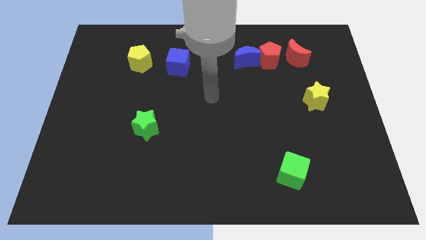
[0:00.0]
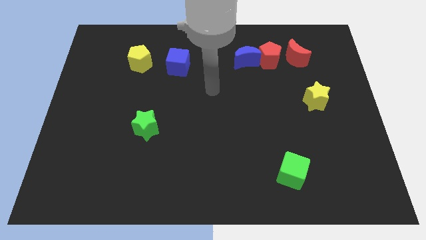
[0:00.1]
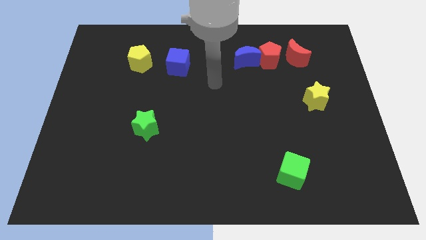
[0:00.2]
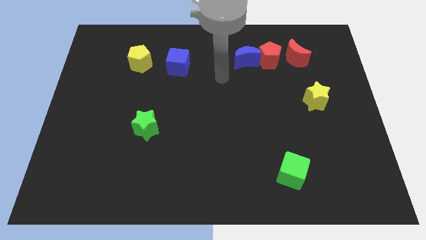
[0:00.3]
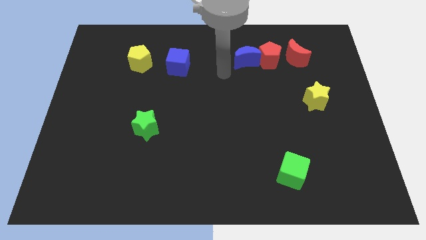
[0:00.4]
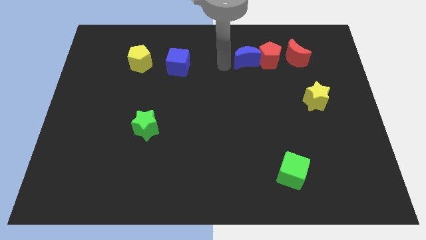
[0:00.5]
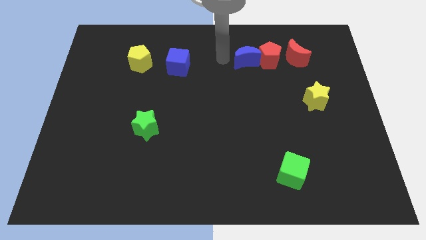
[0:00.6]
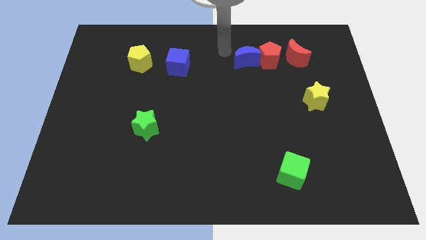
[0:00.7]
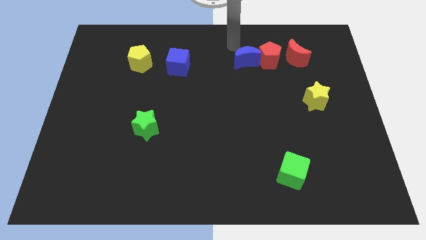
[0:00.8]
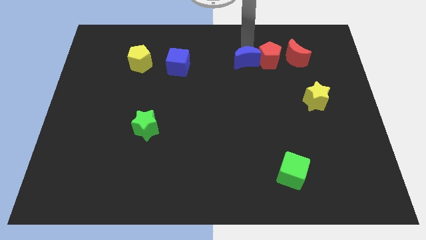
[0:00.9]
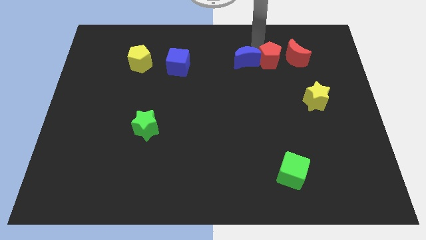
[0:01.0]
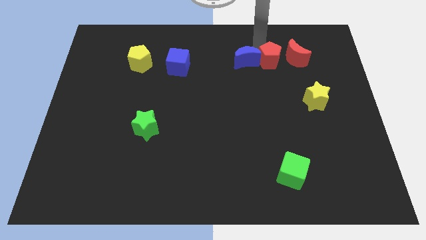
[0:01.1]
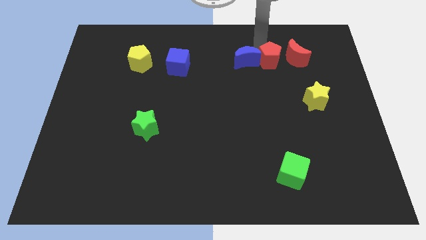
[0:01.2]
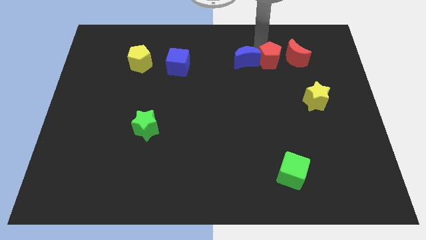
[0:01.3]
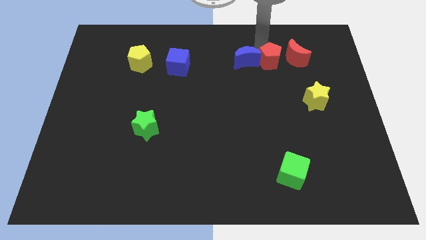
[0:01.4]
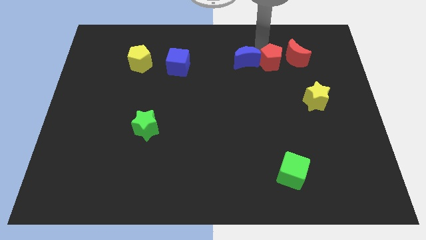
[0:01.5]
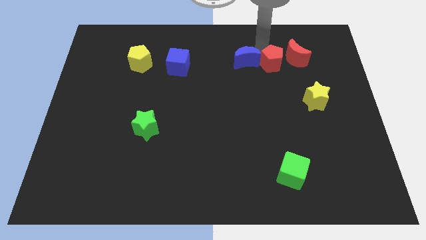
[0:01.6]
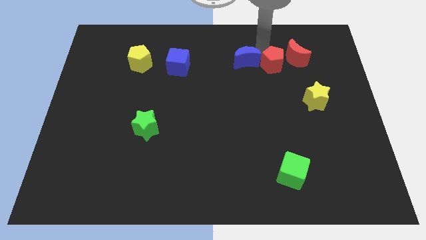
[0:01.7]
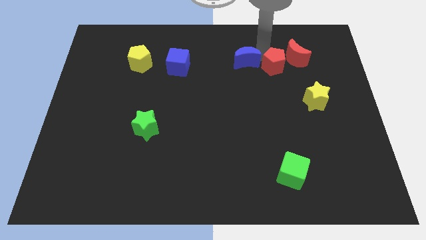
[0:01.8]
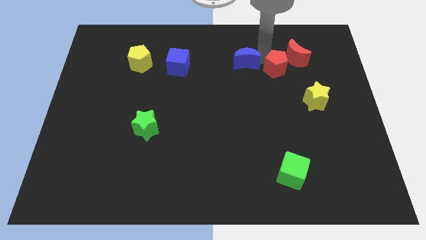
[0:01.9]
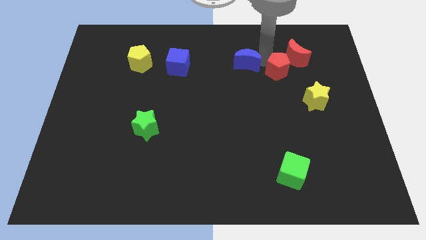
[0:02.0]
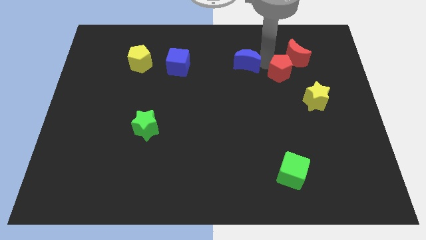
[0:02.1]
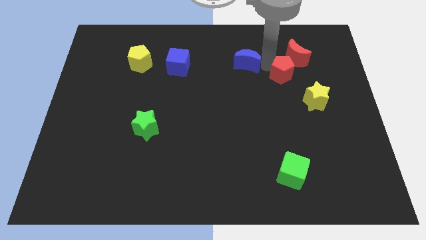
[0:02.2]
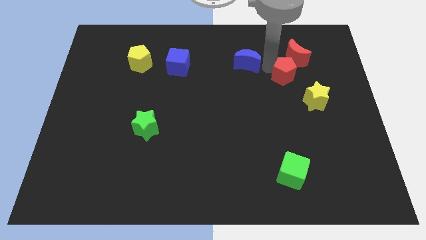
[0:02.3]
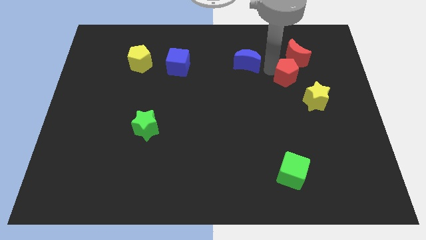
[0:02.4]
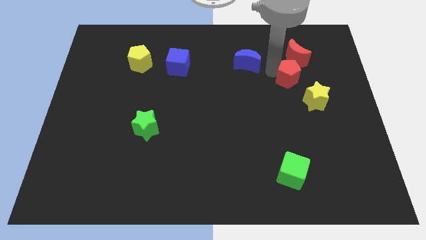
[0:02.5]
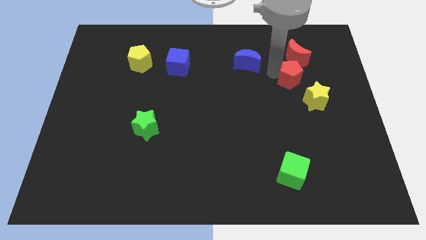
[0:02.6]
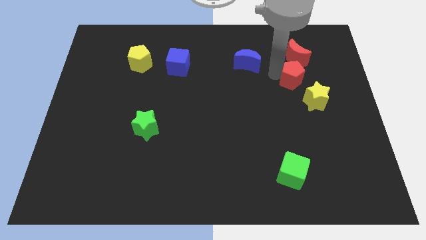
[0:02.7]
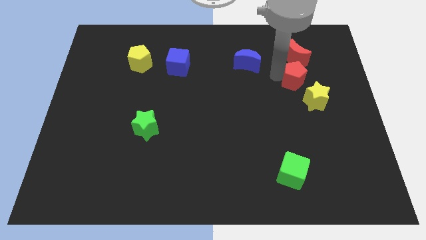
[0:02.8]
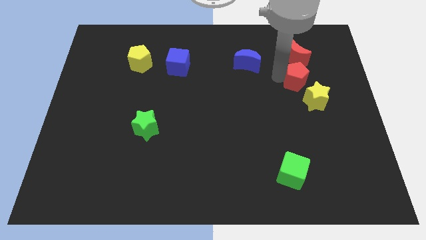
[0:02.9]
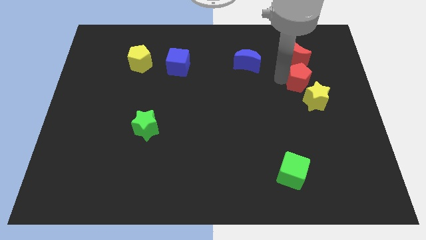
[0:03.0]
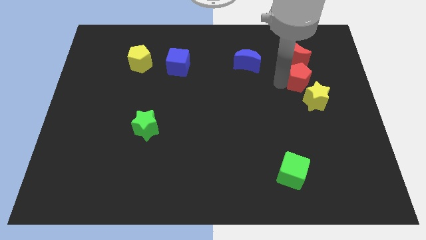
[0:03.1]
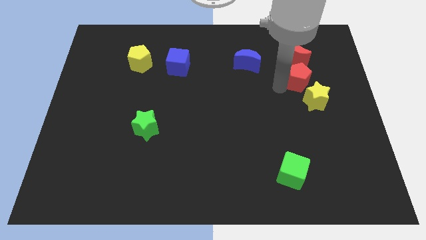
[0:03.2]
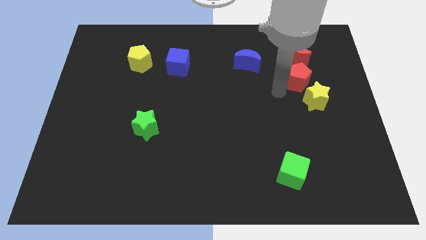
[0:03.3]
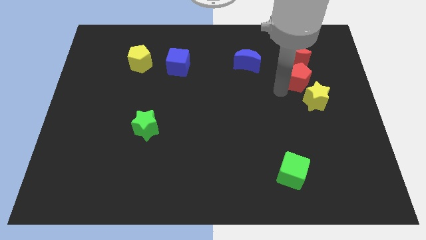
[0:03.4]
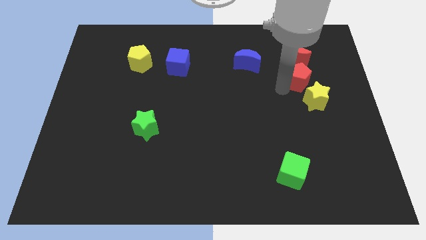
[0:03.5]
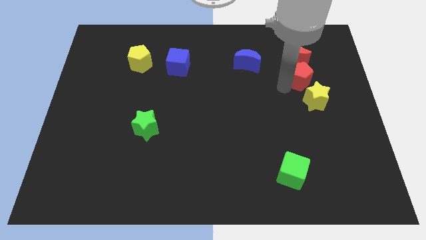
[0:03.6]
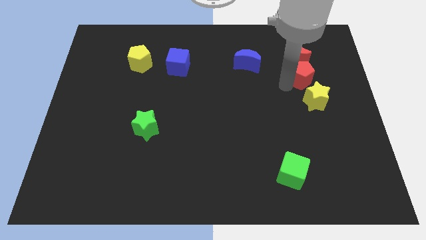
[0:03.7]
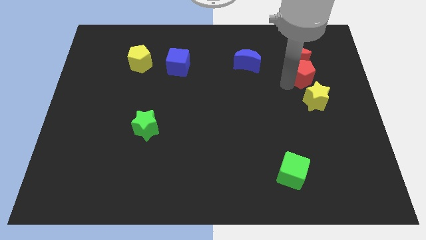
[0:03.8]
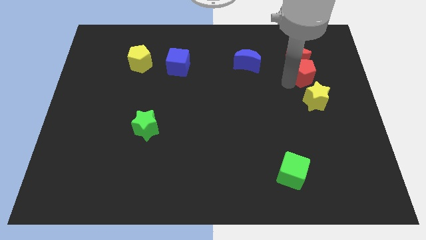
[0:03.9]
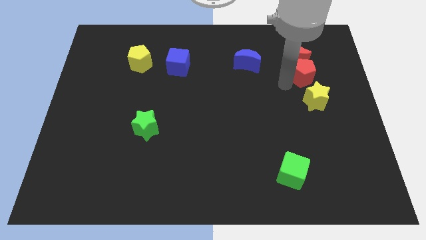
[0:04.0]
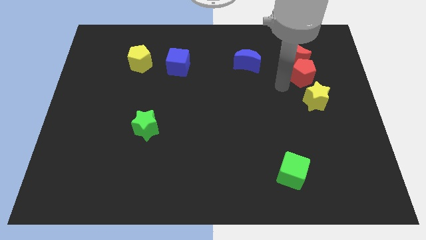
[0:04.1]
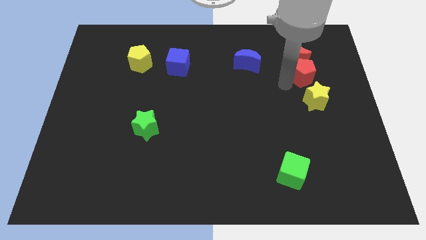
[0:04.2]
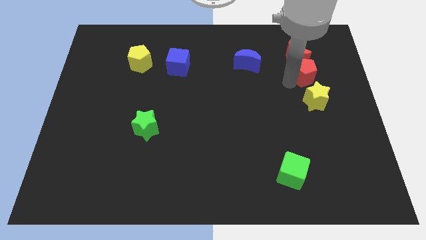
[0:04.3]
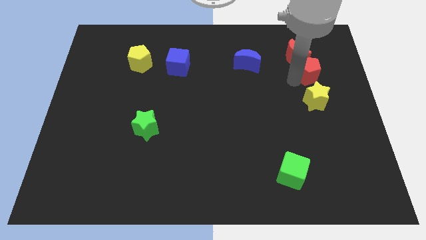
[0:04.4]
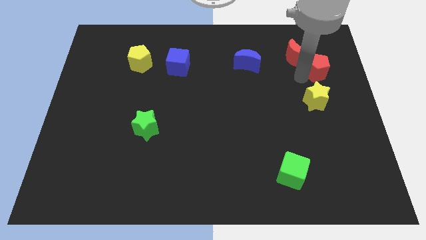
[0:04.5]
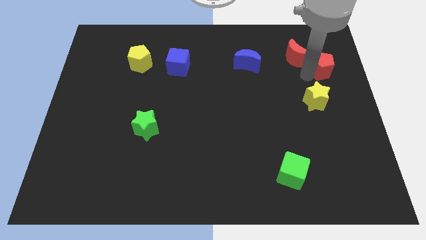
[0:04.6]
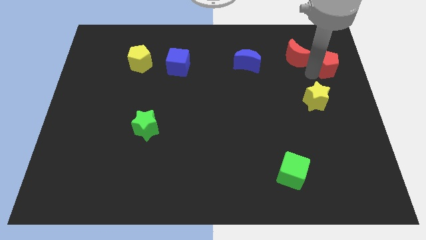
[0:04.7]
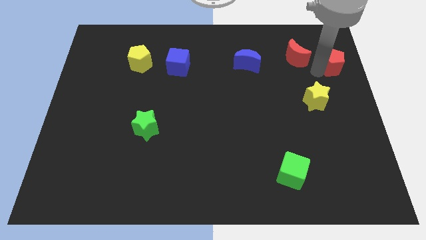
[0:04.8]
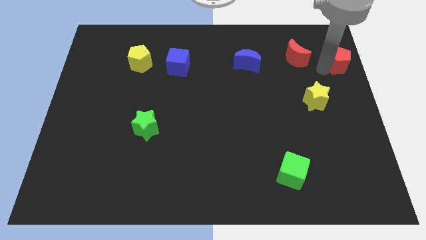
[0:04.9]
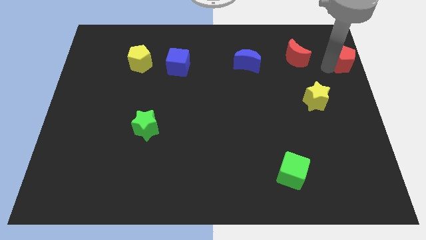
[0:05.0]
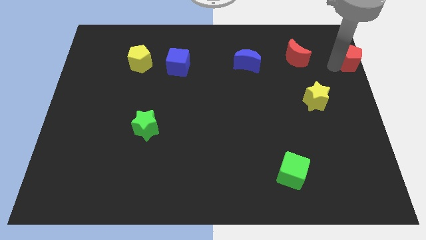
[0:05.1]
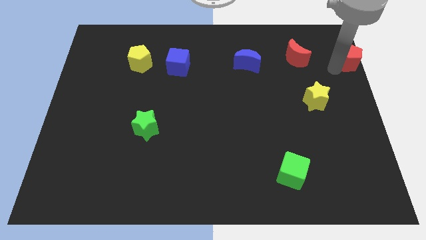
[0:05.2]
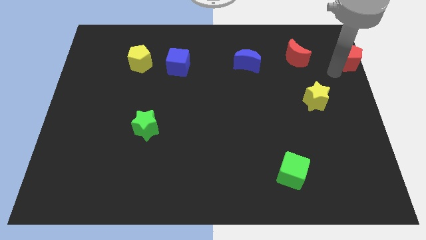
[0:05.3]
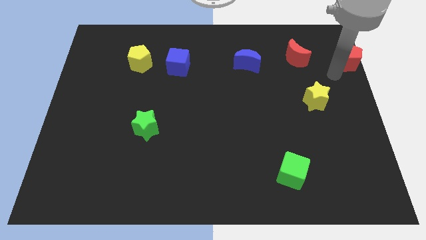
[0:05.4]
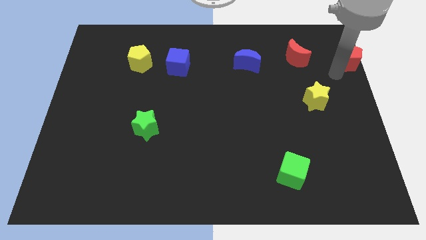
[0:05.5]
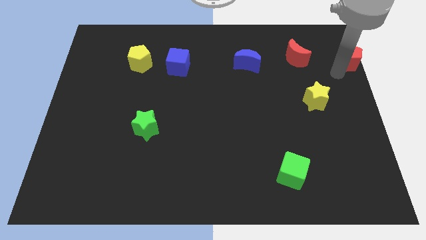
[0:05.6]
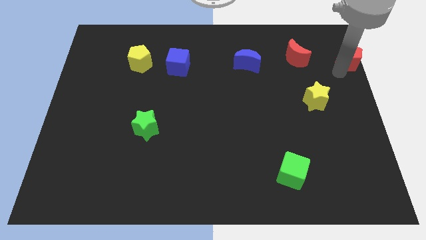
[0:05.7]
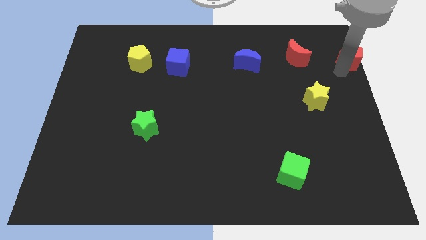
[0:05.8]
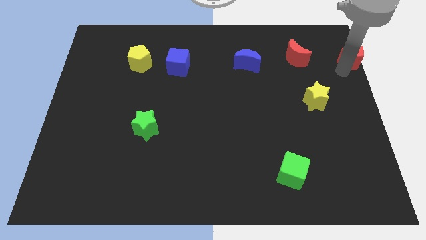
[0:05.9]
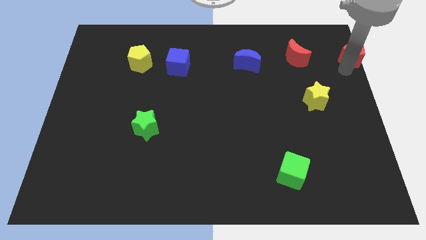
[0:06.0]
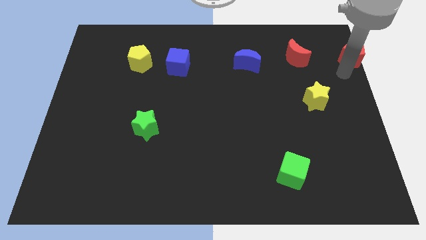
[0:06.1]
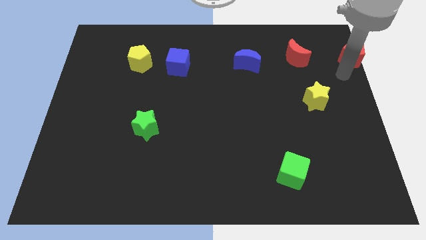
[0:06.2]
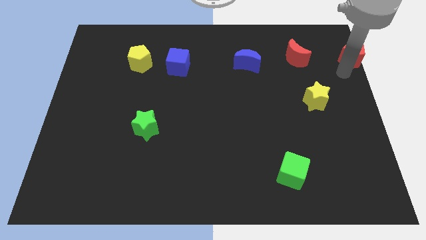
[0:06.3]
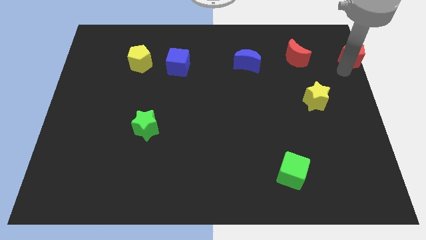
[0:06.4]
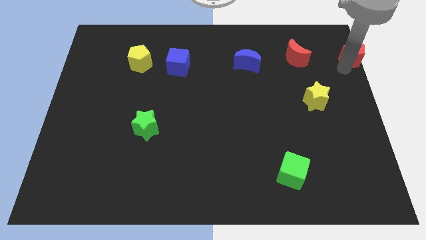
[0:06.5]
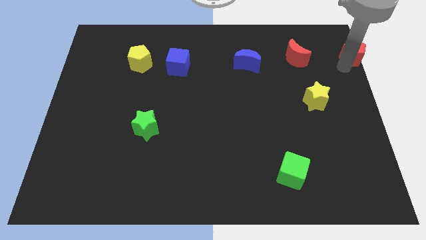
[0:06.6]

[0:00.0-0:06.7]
push the red pentagon to the top right of the board

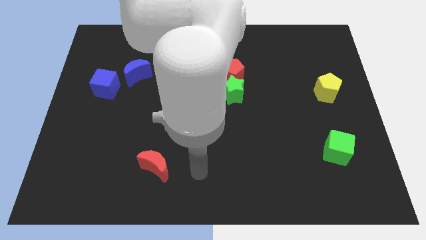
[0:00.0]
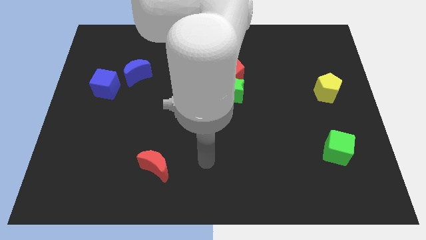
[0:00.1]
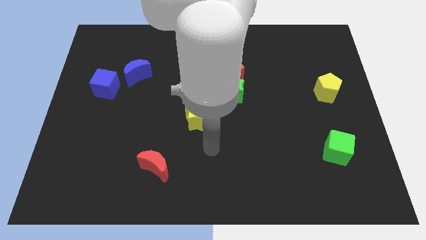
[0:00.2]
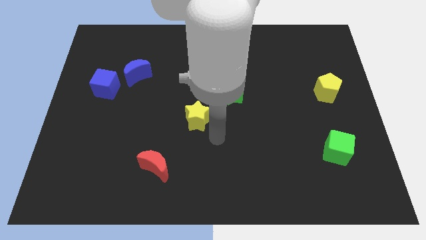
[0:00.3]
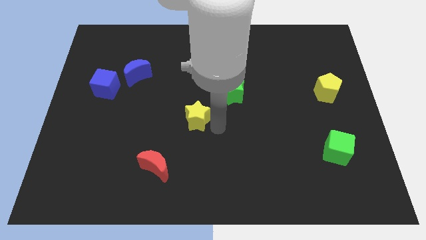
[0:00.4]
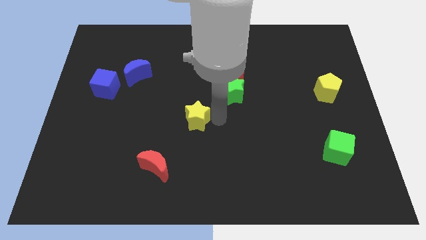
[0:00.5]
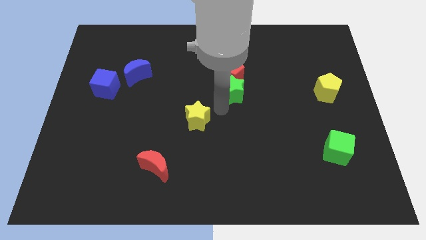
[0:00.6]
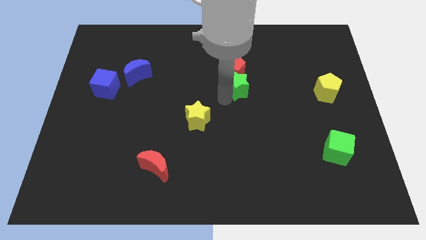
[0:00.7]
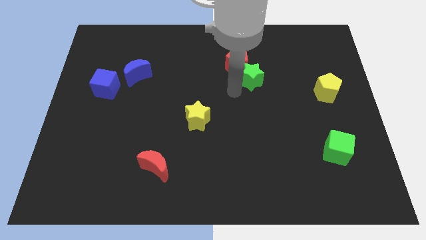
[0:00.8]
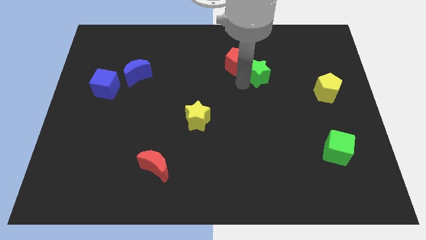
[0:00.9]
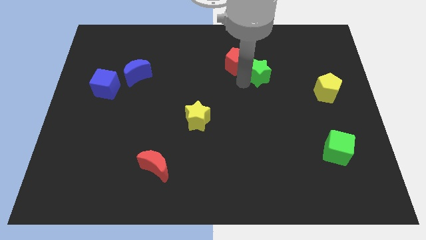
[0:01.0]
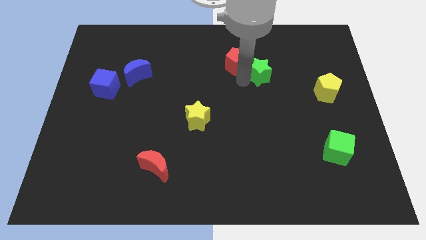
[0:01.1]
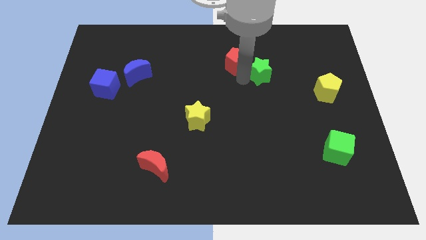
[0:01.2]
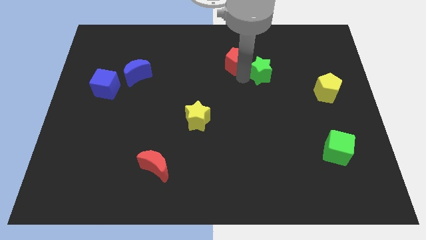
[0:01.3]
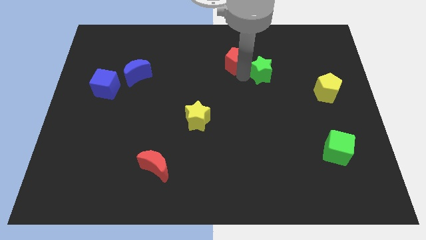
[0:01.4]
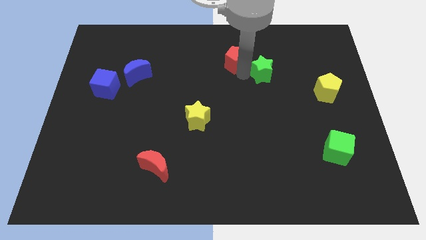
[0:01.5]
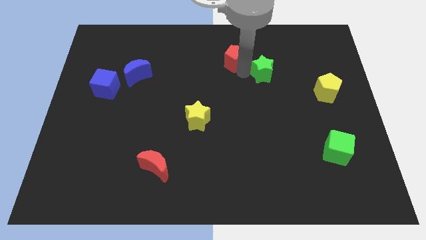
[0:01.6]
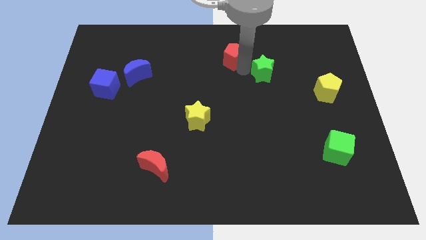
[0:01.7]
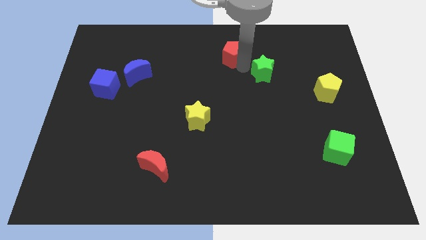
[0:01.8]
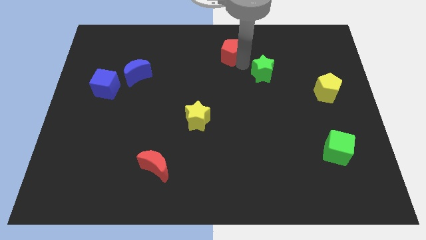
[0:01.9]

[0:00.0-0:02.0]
push the red pentagon to the top
